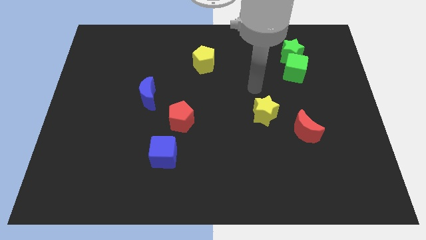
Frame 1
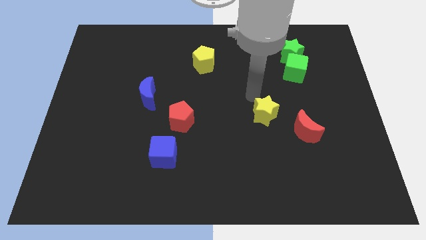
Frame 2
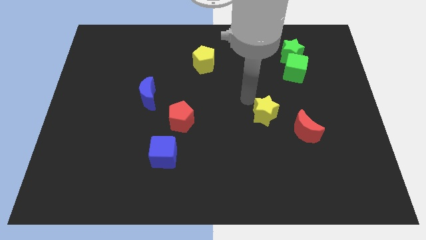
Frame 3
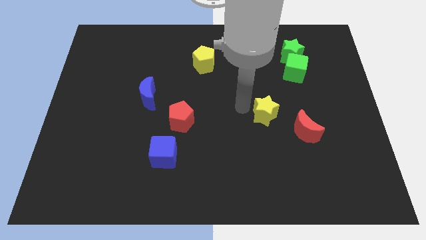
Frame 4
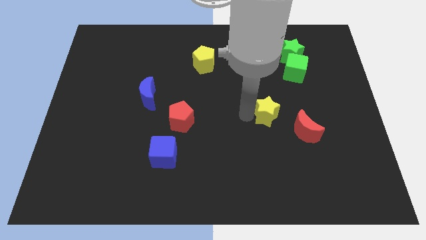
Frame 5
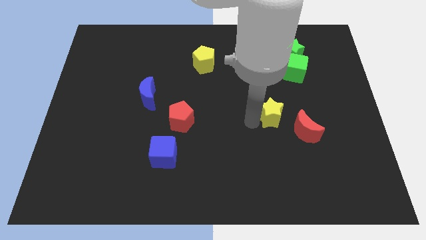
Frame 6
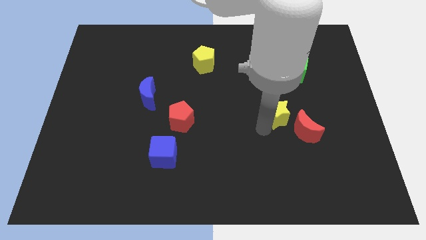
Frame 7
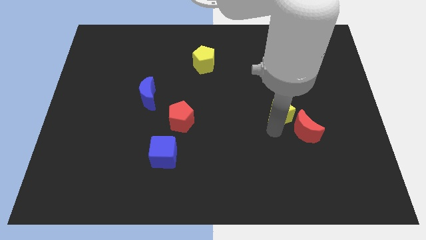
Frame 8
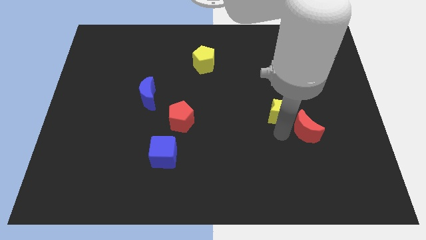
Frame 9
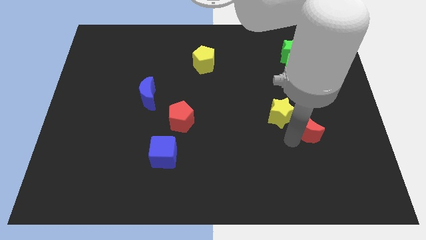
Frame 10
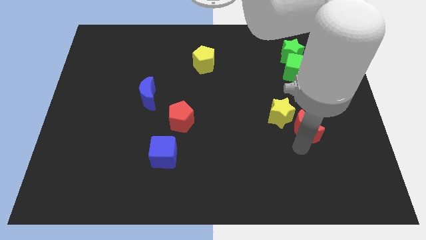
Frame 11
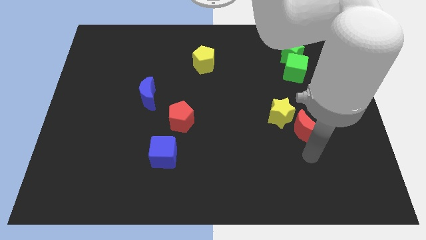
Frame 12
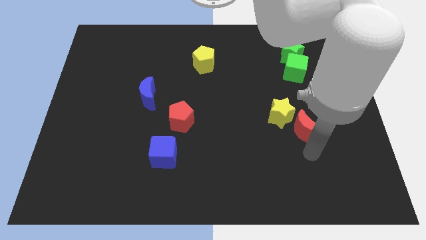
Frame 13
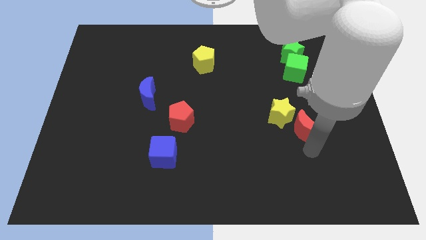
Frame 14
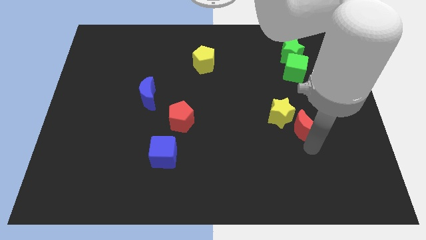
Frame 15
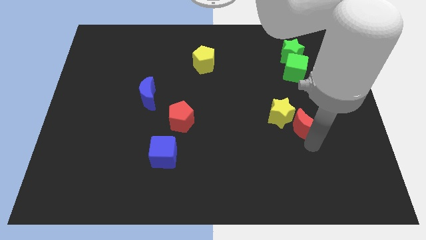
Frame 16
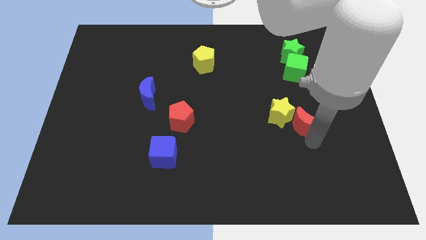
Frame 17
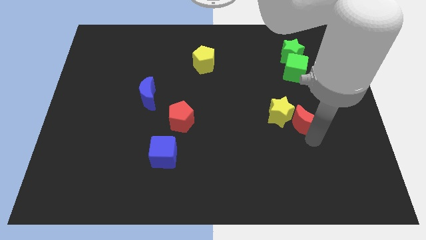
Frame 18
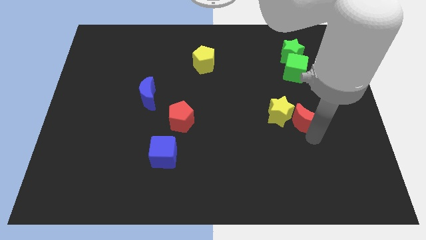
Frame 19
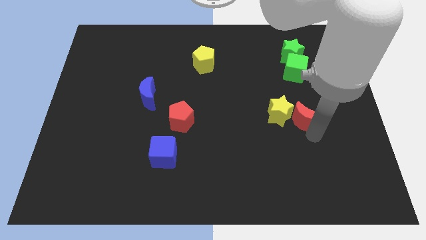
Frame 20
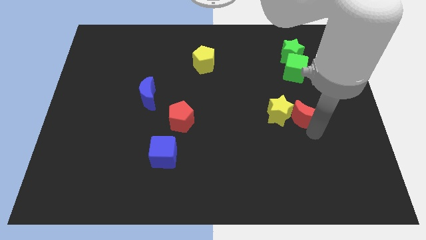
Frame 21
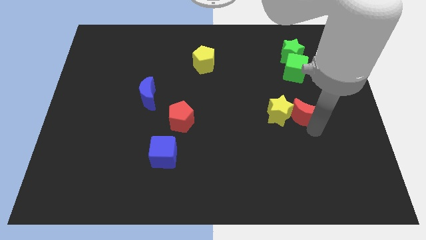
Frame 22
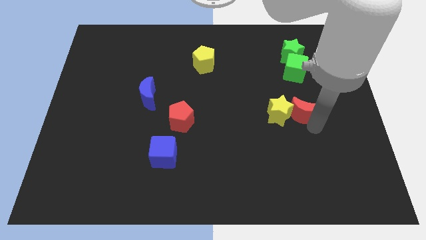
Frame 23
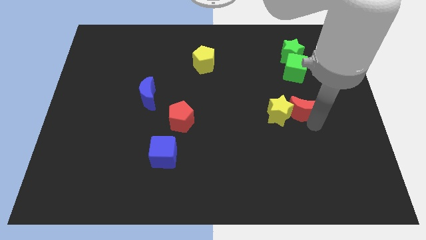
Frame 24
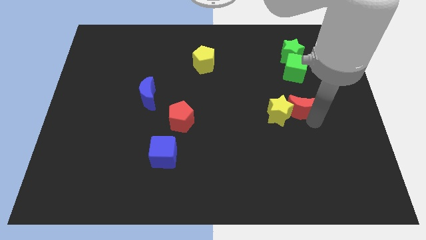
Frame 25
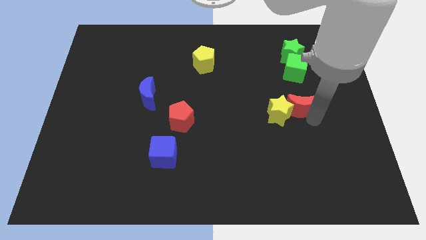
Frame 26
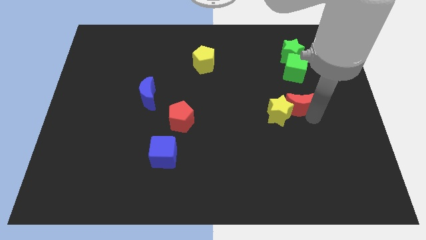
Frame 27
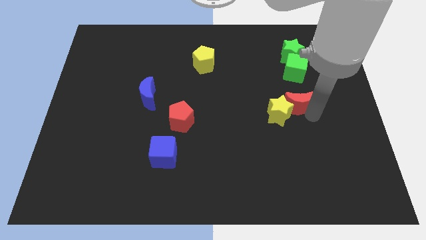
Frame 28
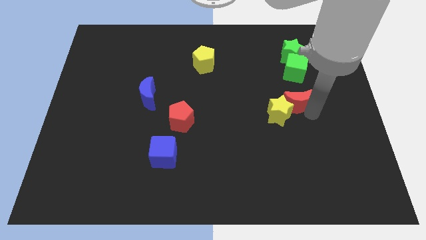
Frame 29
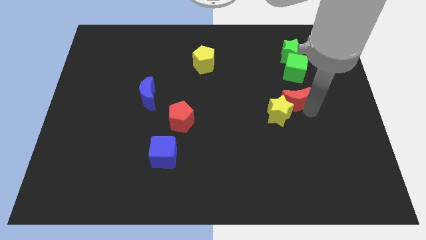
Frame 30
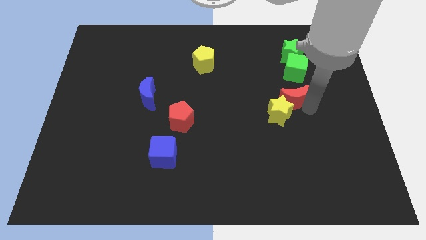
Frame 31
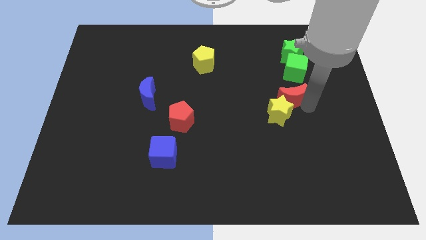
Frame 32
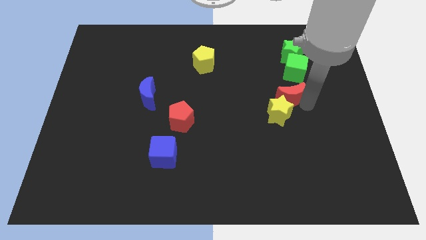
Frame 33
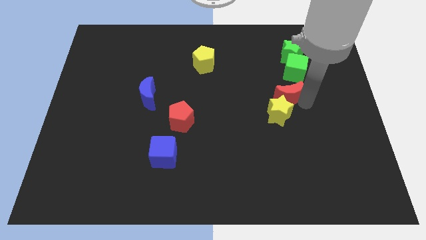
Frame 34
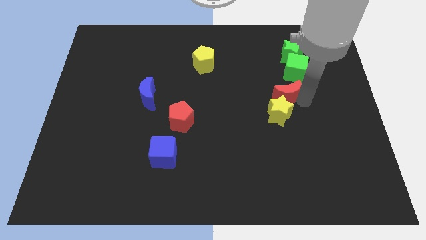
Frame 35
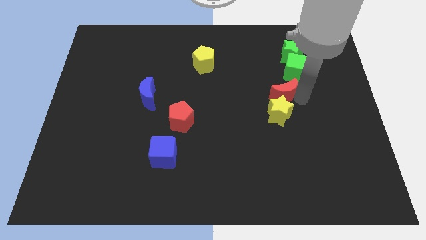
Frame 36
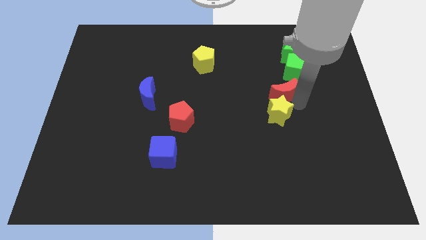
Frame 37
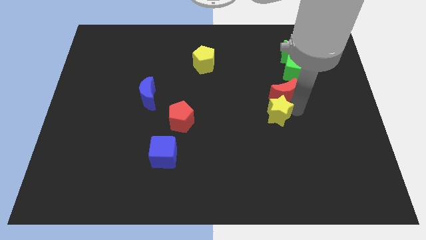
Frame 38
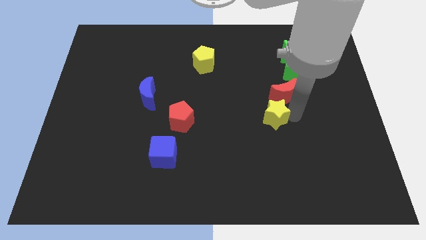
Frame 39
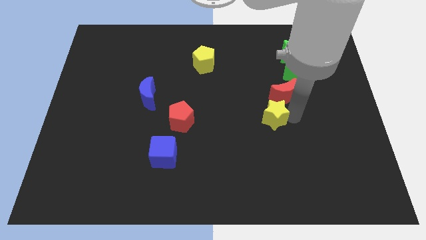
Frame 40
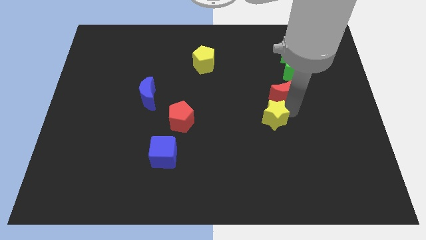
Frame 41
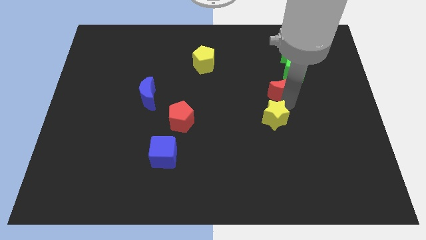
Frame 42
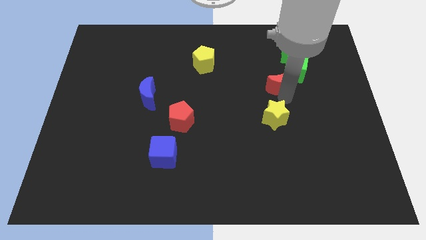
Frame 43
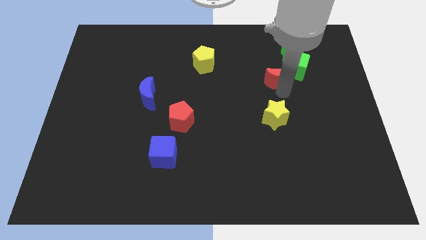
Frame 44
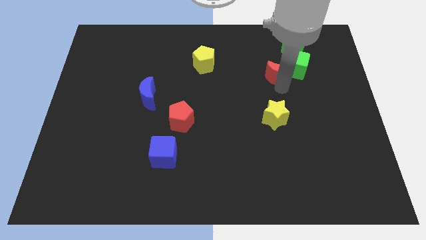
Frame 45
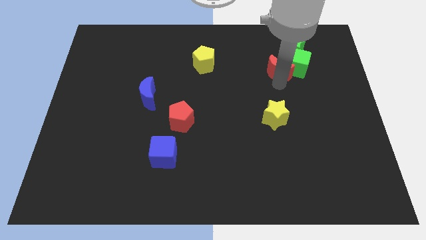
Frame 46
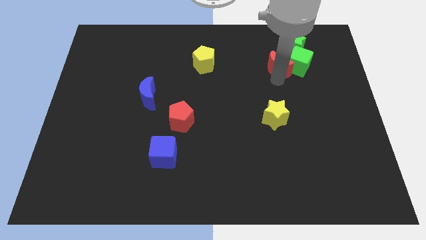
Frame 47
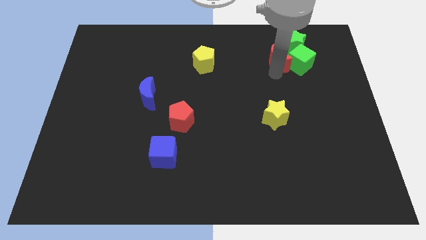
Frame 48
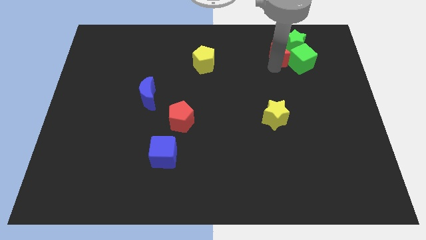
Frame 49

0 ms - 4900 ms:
move the red moon towards the green star

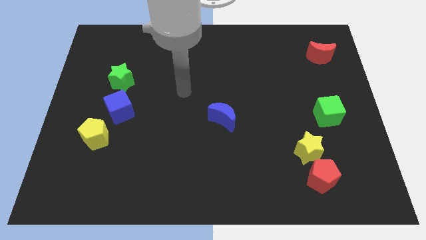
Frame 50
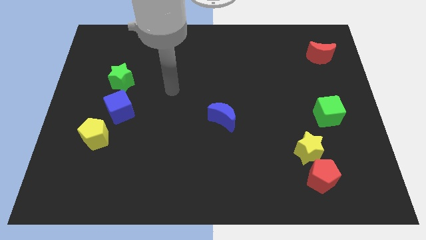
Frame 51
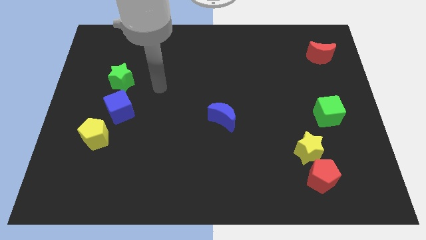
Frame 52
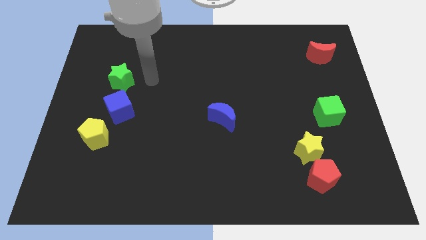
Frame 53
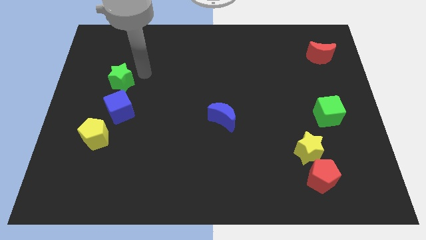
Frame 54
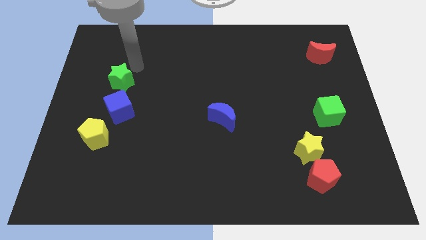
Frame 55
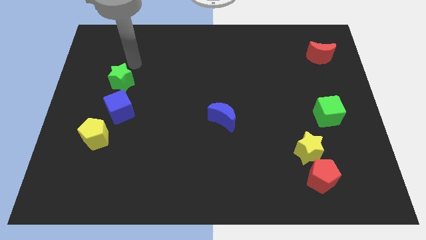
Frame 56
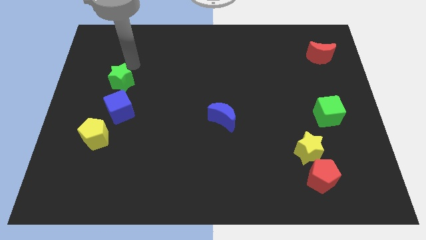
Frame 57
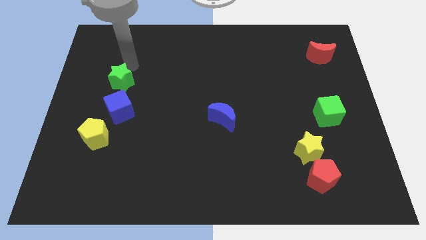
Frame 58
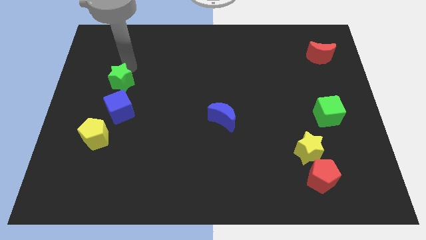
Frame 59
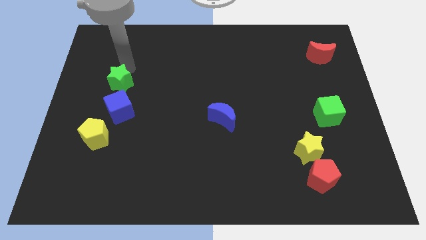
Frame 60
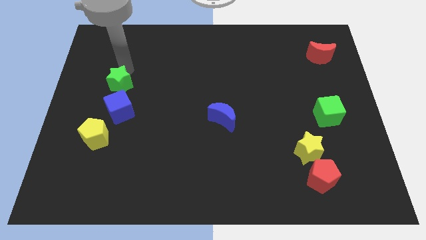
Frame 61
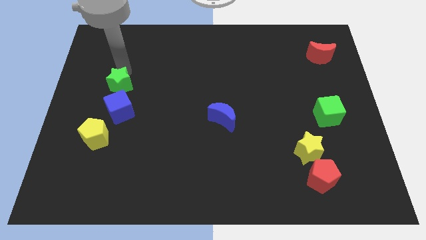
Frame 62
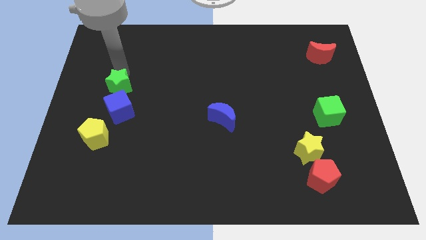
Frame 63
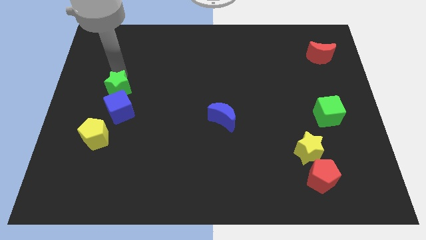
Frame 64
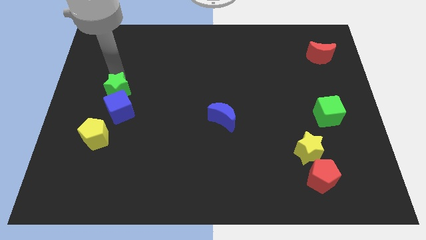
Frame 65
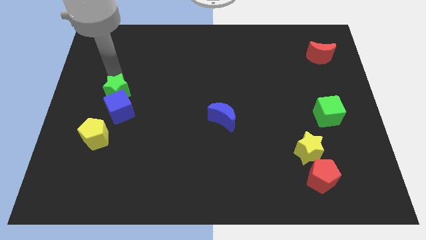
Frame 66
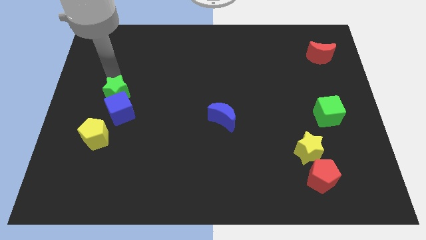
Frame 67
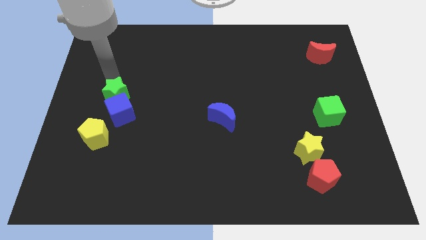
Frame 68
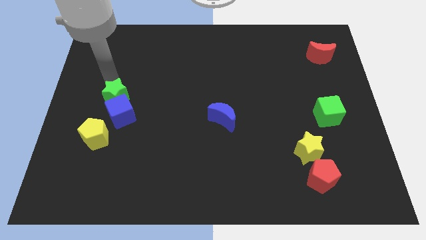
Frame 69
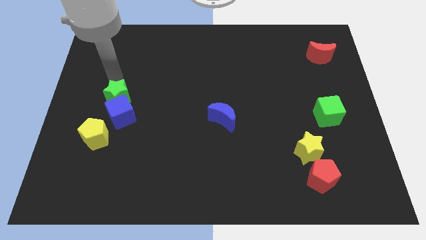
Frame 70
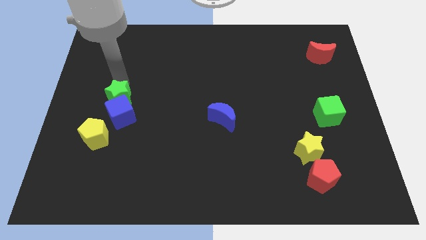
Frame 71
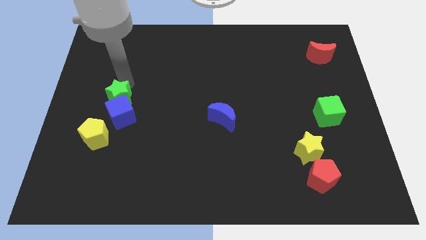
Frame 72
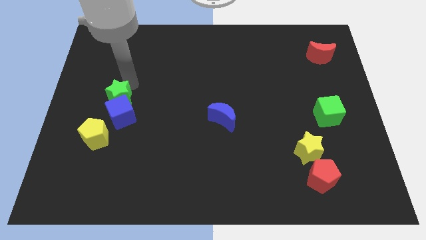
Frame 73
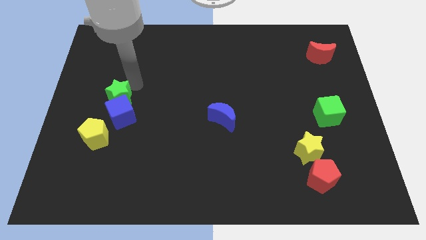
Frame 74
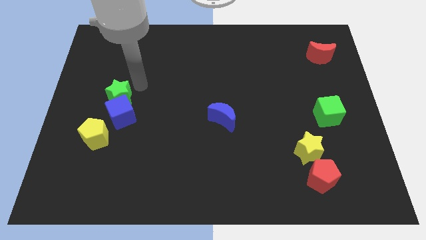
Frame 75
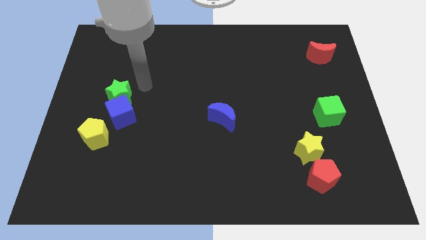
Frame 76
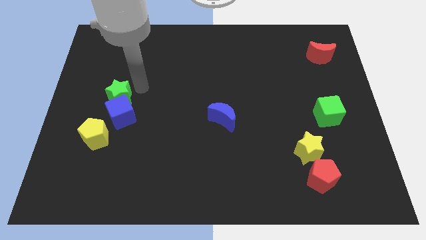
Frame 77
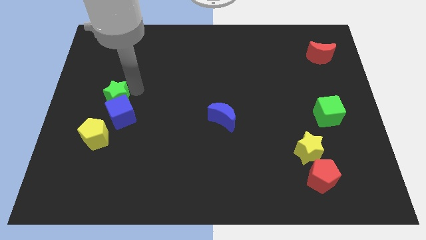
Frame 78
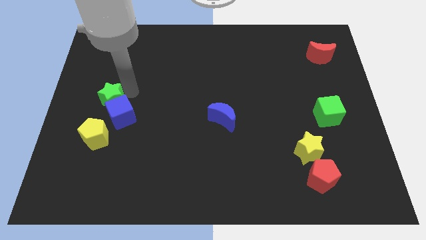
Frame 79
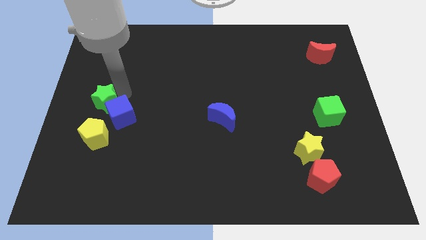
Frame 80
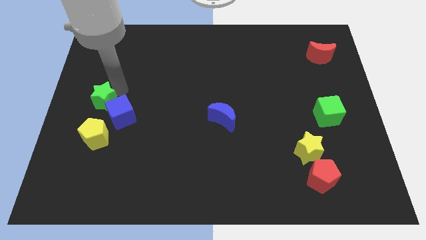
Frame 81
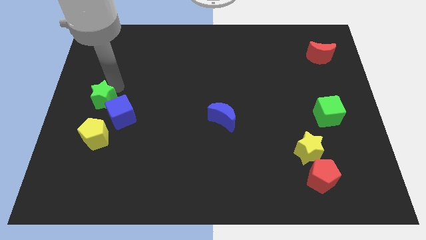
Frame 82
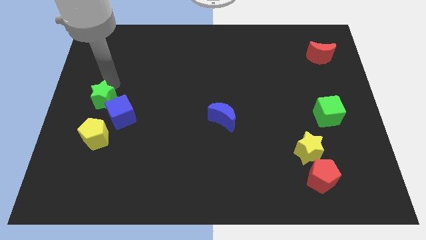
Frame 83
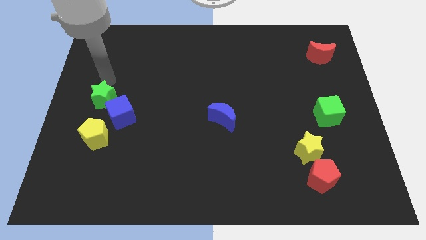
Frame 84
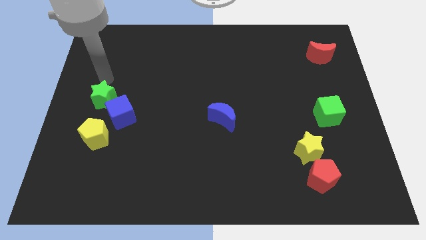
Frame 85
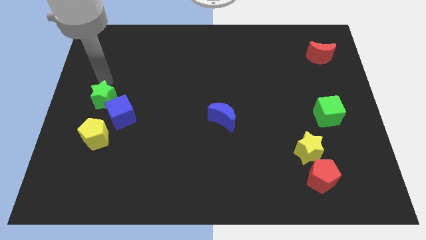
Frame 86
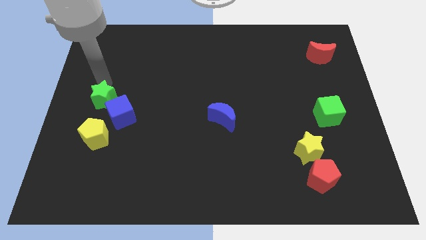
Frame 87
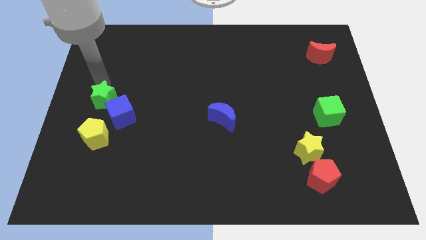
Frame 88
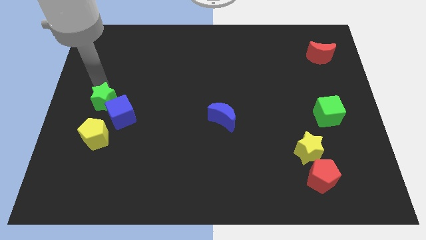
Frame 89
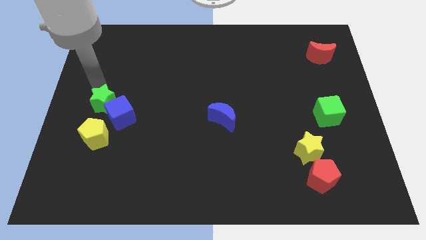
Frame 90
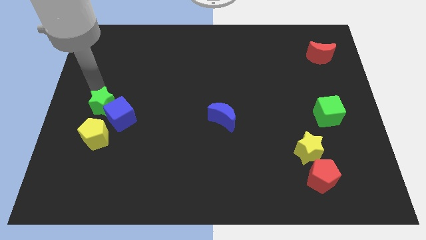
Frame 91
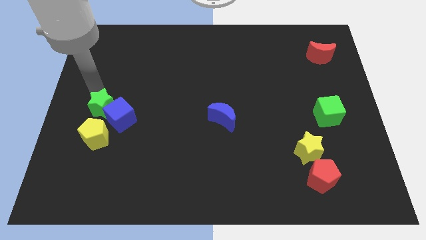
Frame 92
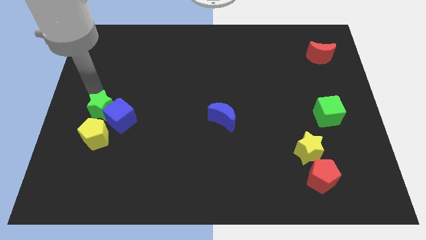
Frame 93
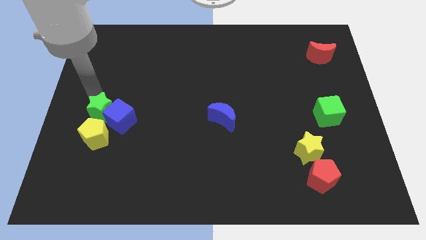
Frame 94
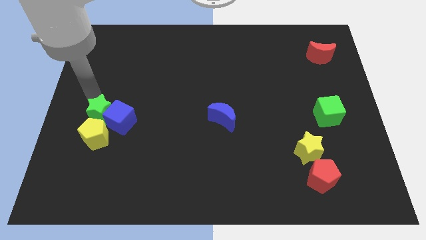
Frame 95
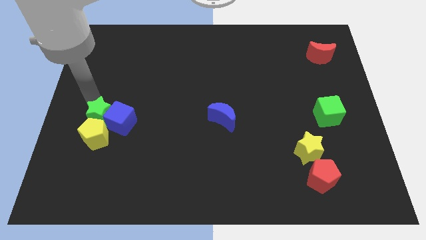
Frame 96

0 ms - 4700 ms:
put the green star next to the yellow pentagon
